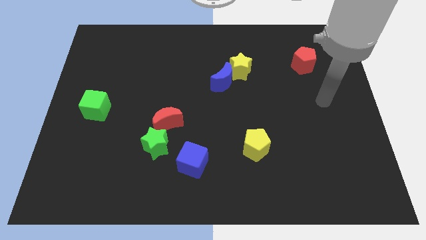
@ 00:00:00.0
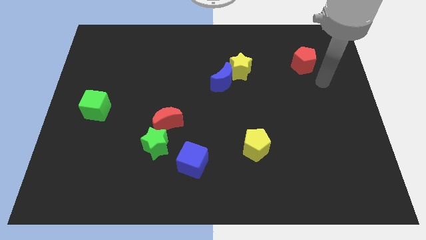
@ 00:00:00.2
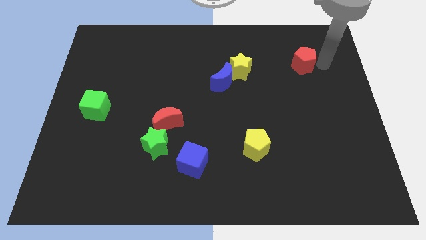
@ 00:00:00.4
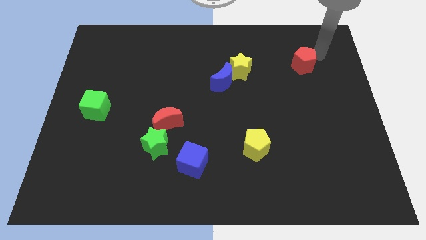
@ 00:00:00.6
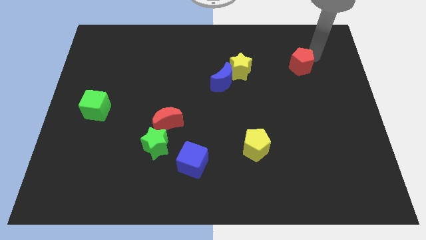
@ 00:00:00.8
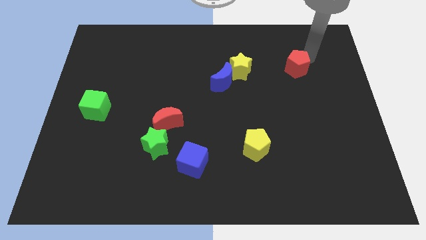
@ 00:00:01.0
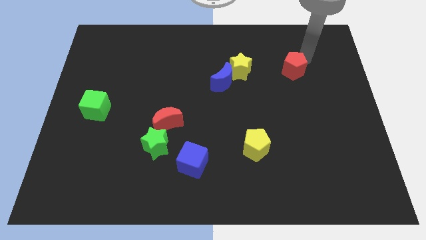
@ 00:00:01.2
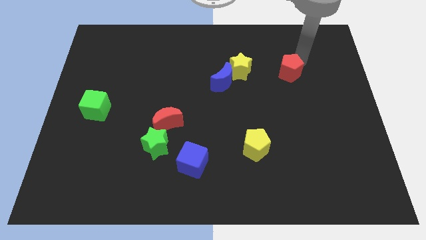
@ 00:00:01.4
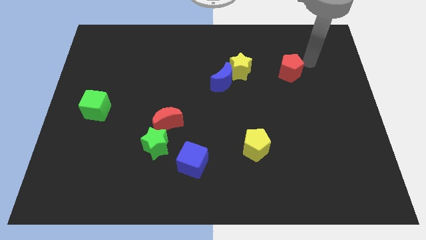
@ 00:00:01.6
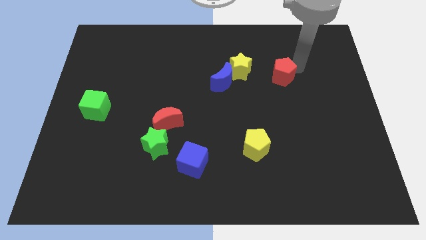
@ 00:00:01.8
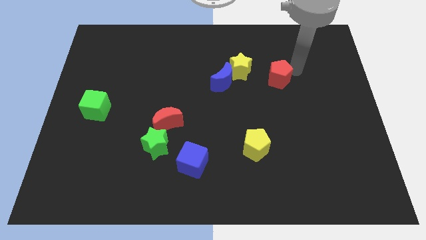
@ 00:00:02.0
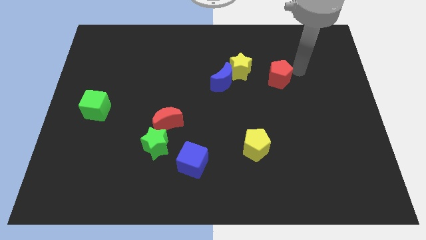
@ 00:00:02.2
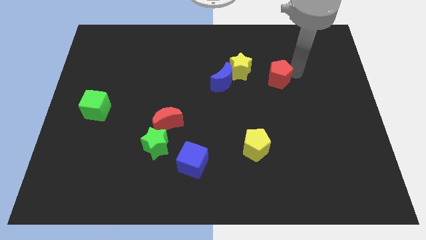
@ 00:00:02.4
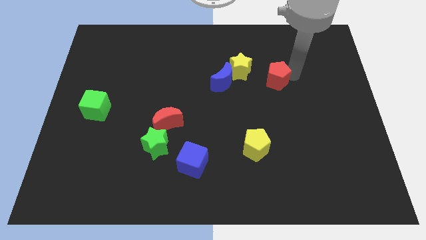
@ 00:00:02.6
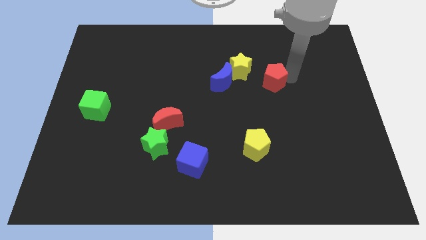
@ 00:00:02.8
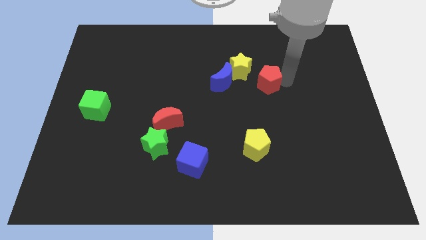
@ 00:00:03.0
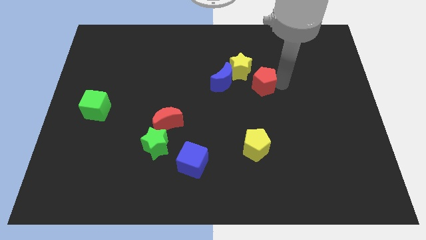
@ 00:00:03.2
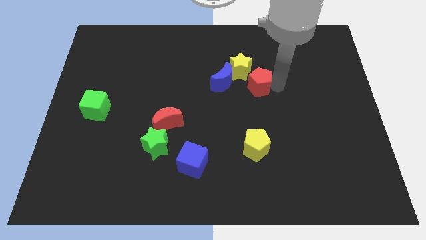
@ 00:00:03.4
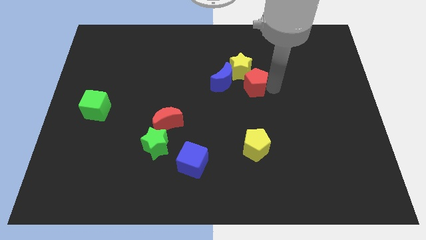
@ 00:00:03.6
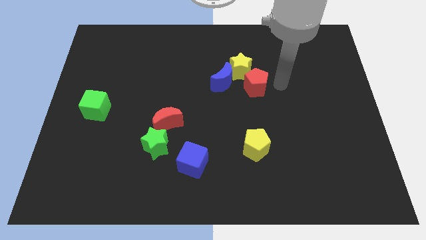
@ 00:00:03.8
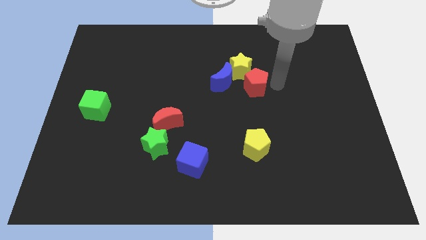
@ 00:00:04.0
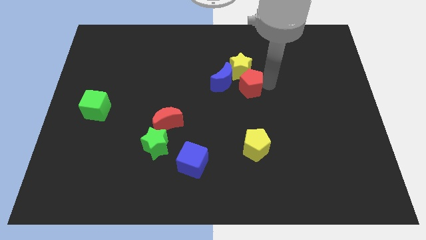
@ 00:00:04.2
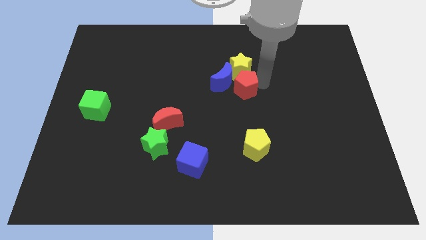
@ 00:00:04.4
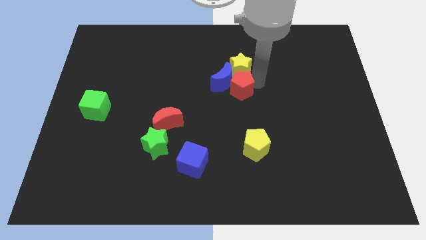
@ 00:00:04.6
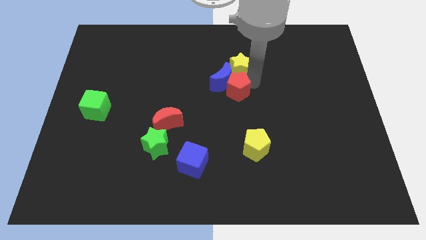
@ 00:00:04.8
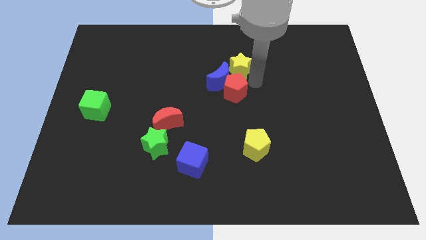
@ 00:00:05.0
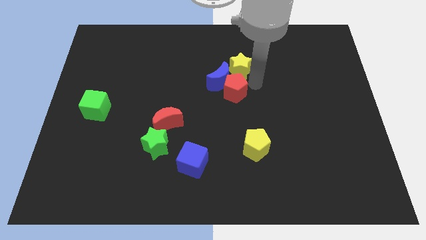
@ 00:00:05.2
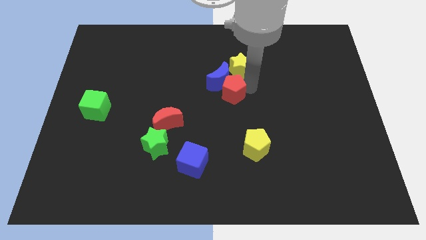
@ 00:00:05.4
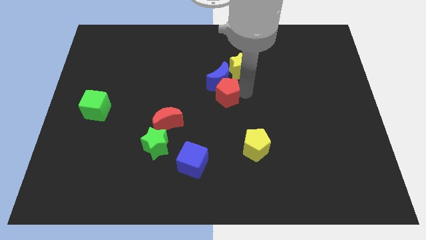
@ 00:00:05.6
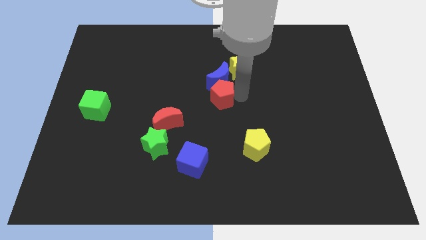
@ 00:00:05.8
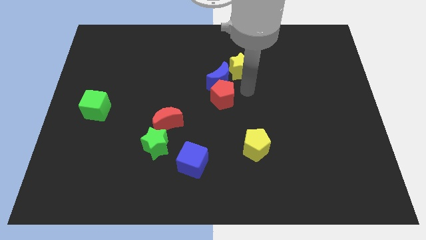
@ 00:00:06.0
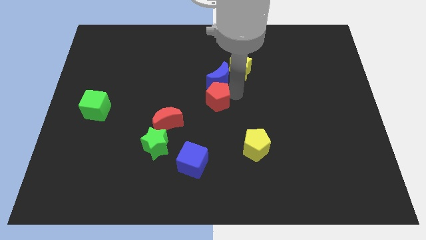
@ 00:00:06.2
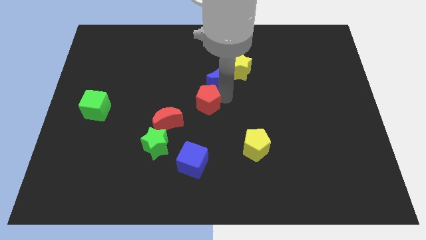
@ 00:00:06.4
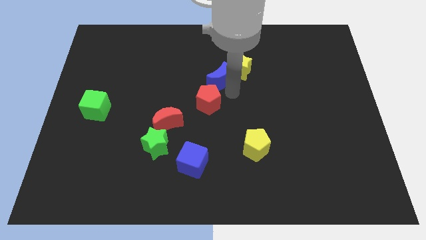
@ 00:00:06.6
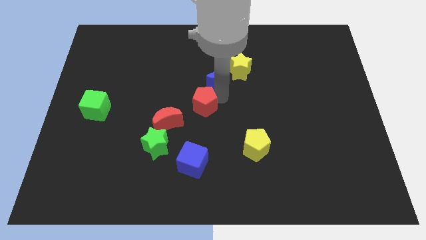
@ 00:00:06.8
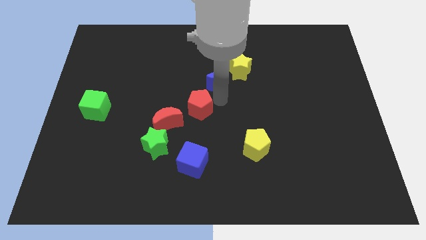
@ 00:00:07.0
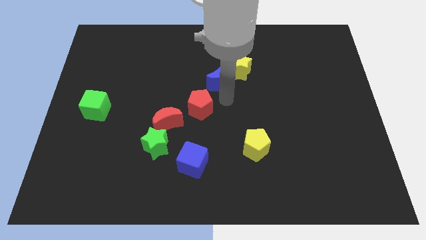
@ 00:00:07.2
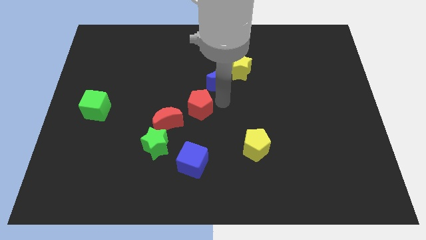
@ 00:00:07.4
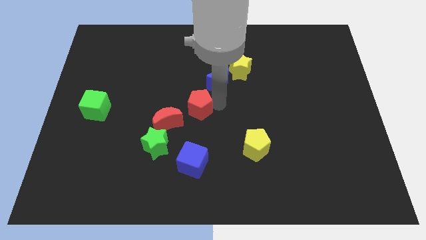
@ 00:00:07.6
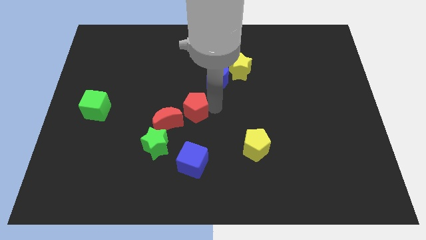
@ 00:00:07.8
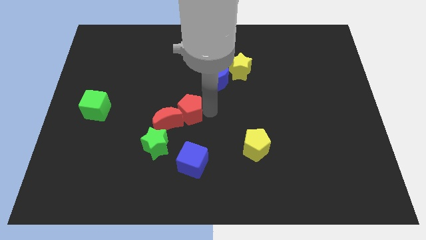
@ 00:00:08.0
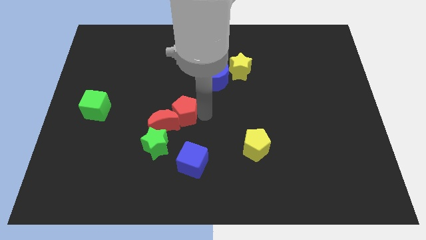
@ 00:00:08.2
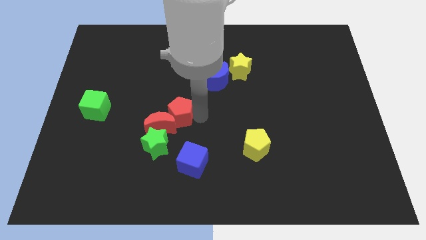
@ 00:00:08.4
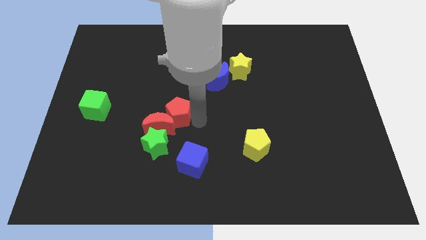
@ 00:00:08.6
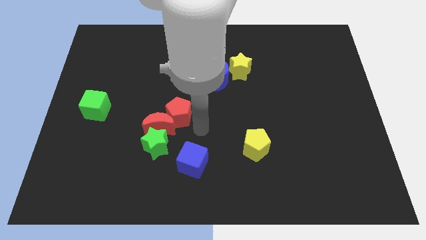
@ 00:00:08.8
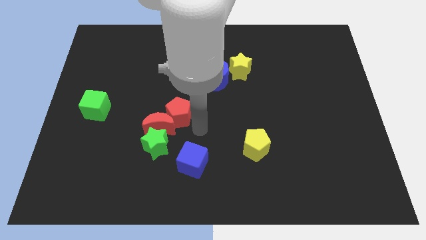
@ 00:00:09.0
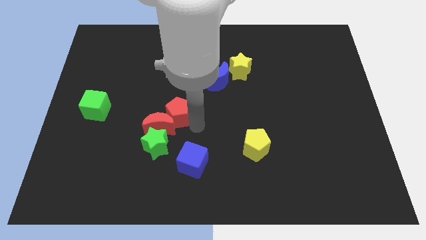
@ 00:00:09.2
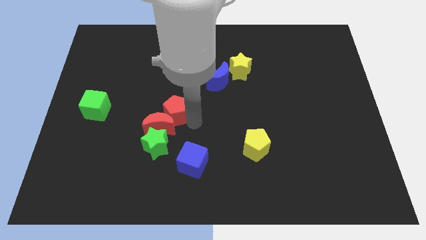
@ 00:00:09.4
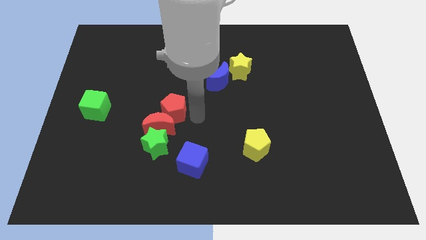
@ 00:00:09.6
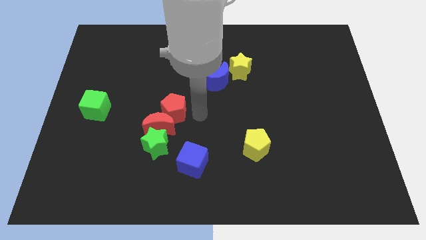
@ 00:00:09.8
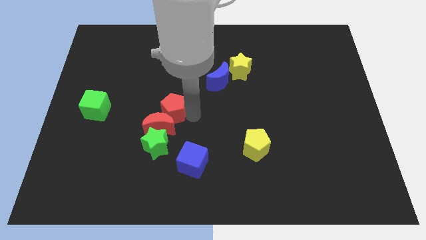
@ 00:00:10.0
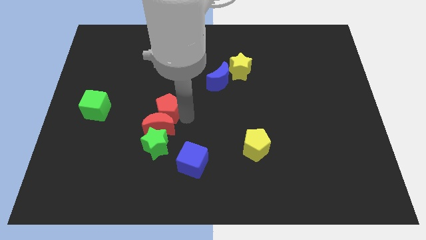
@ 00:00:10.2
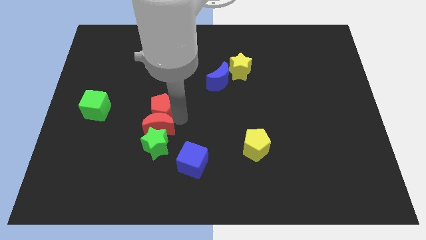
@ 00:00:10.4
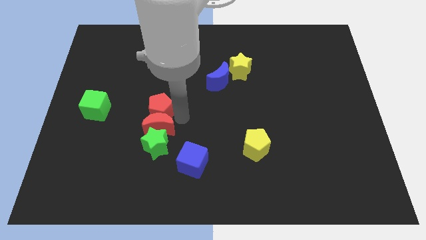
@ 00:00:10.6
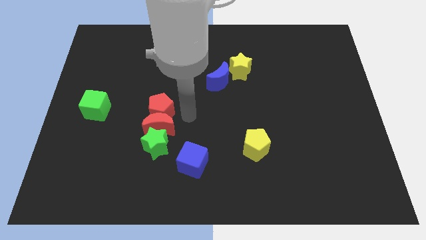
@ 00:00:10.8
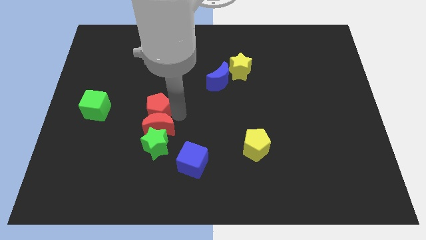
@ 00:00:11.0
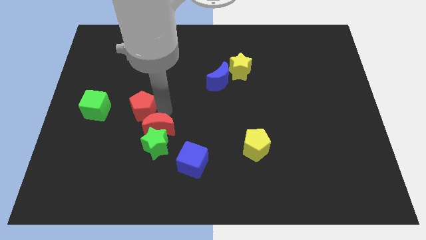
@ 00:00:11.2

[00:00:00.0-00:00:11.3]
push the red pentagon just left of the red moon

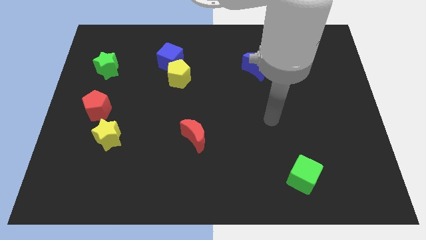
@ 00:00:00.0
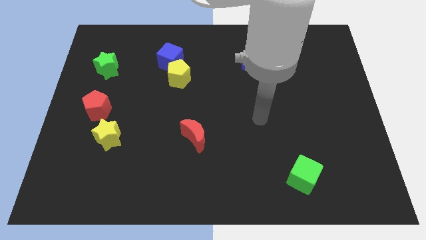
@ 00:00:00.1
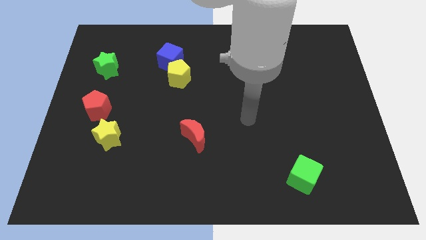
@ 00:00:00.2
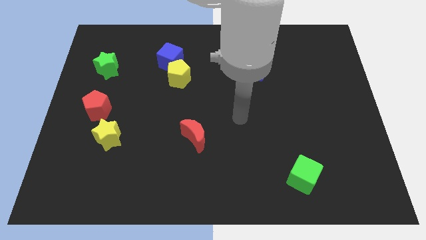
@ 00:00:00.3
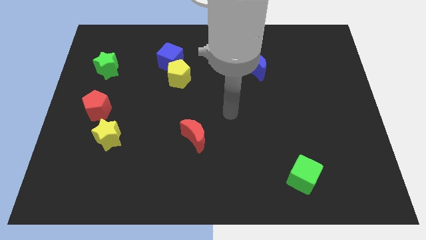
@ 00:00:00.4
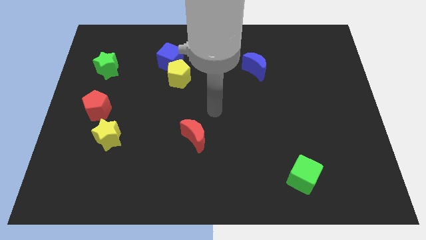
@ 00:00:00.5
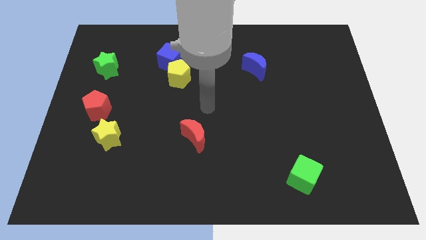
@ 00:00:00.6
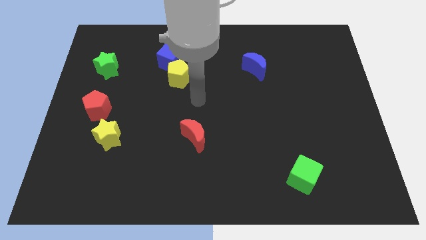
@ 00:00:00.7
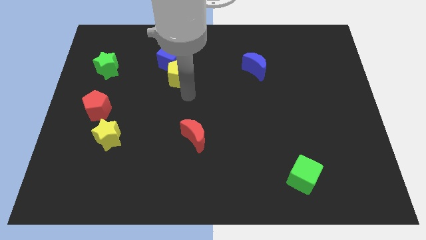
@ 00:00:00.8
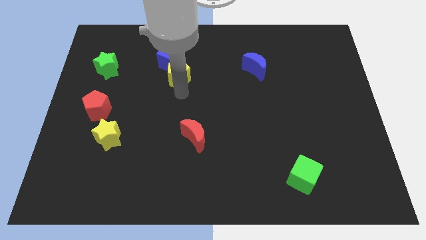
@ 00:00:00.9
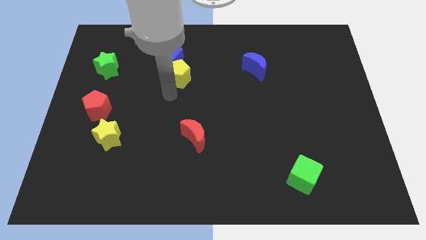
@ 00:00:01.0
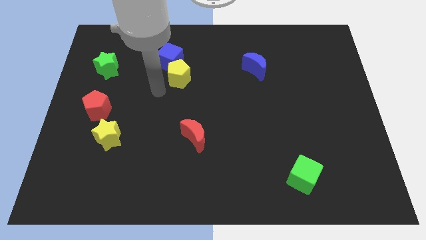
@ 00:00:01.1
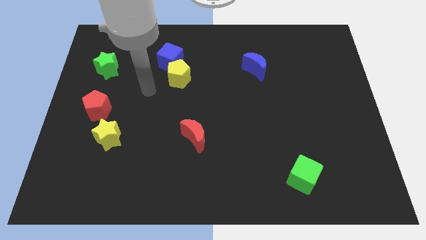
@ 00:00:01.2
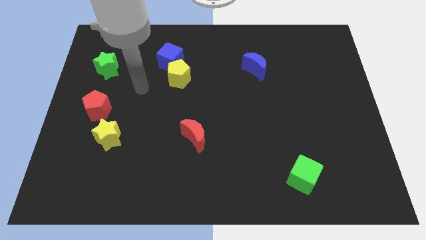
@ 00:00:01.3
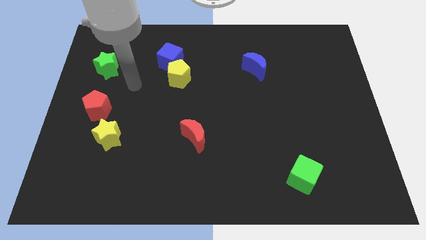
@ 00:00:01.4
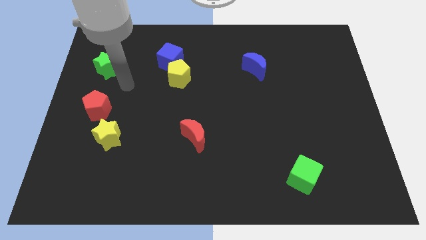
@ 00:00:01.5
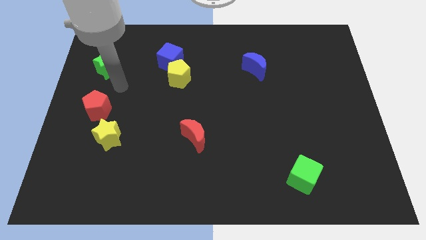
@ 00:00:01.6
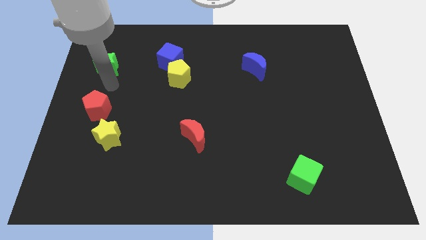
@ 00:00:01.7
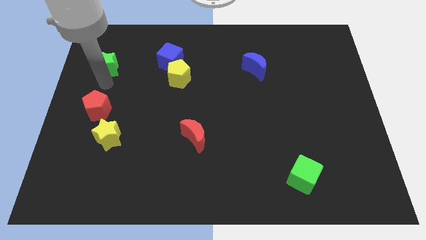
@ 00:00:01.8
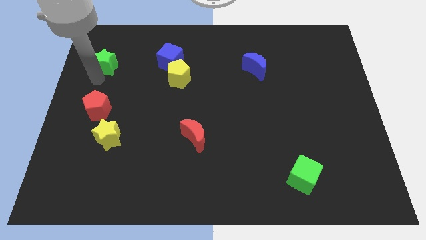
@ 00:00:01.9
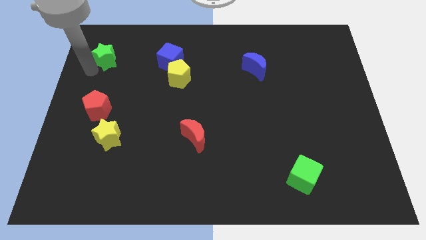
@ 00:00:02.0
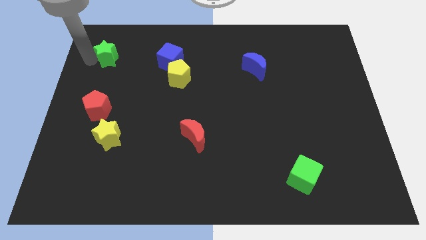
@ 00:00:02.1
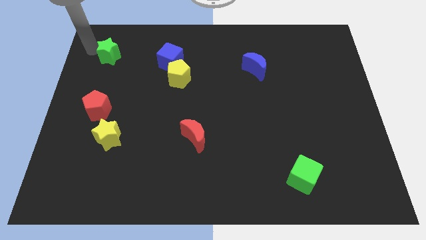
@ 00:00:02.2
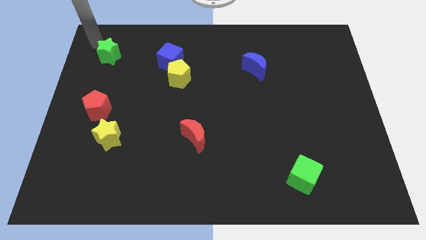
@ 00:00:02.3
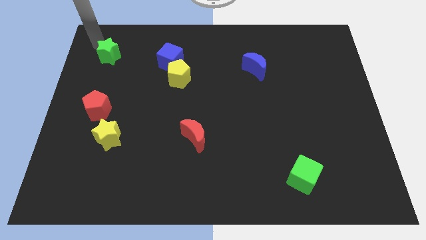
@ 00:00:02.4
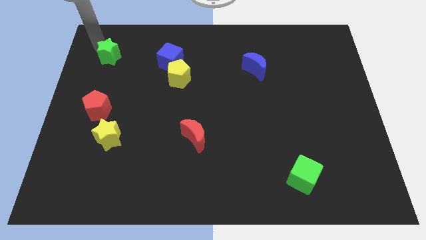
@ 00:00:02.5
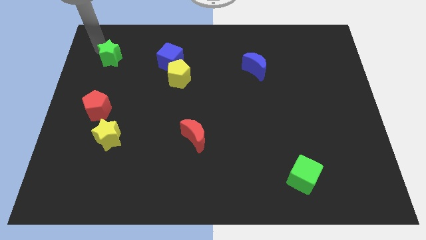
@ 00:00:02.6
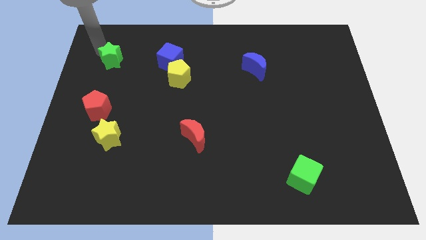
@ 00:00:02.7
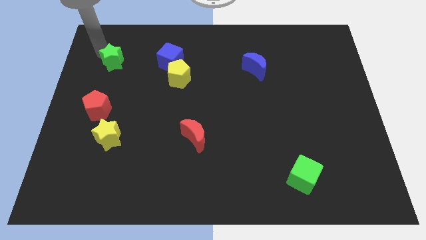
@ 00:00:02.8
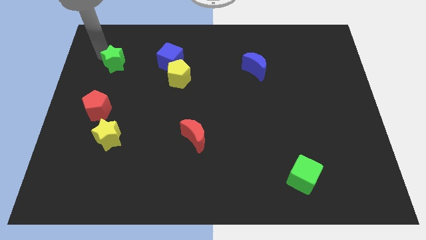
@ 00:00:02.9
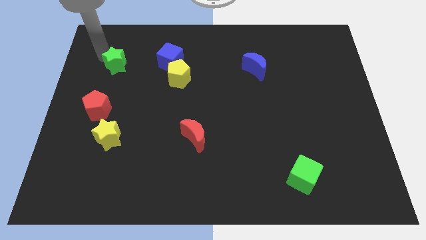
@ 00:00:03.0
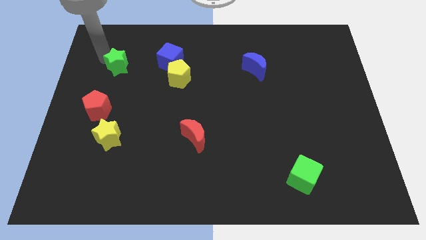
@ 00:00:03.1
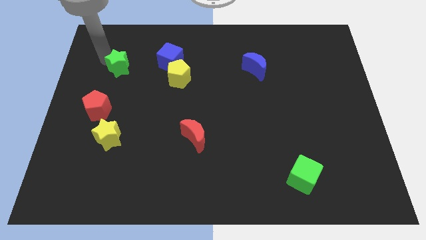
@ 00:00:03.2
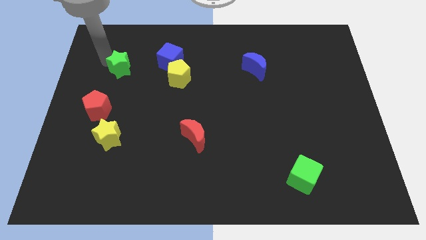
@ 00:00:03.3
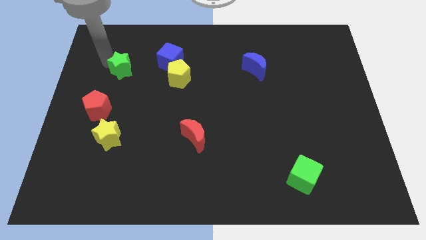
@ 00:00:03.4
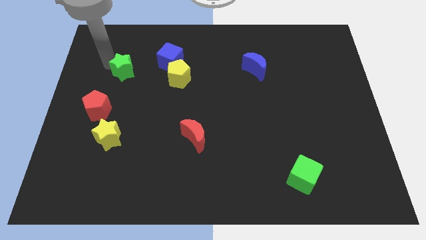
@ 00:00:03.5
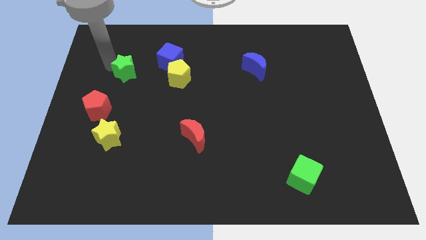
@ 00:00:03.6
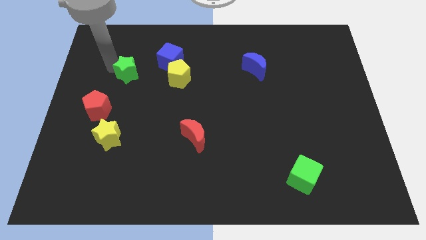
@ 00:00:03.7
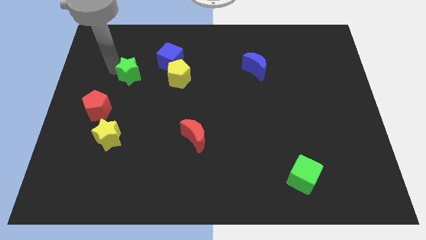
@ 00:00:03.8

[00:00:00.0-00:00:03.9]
slide the green star to the bottom left side of the blue cube
